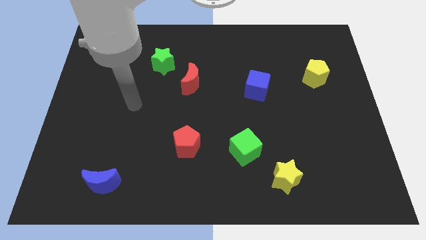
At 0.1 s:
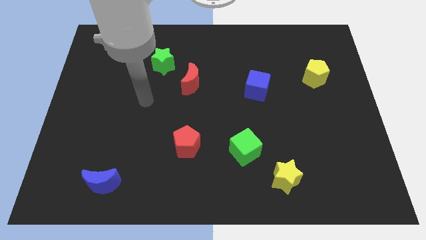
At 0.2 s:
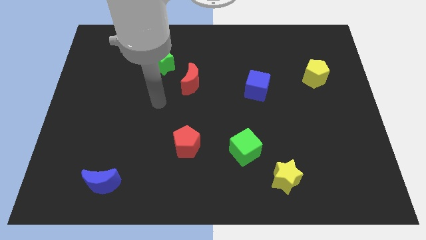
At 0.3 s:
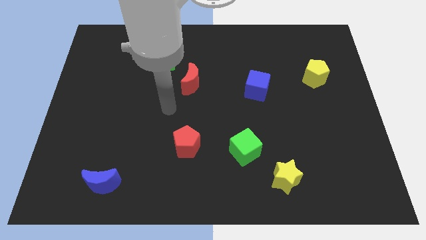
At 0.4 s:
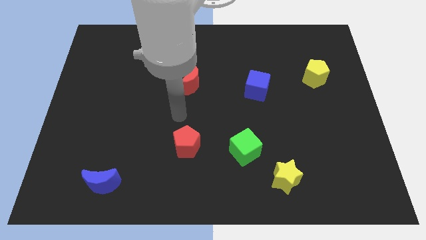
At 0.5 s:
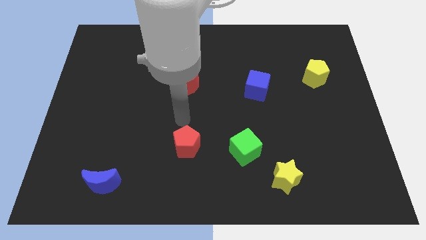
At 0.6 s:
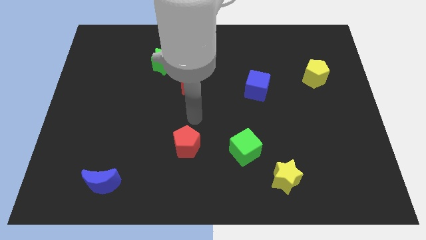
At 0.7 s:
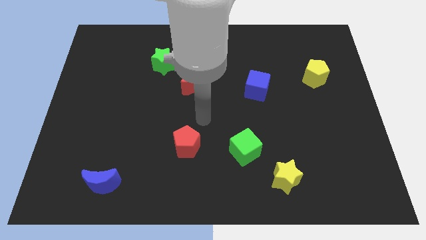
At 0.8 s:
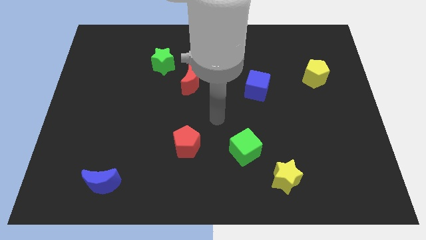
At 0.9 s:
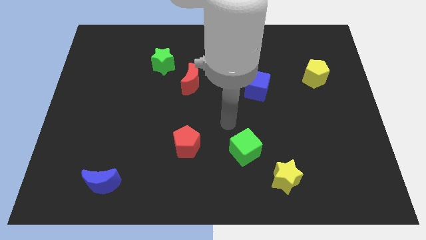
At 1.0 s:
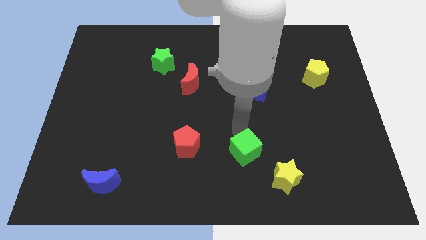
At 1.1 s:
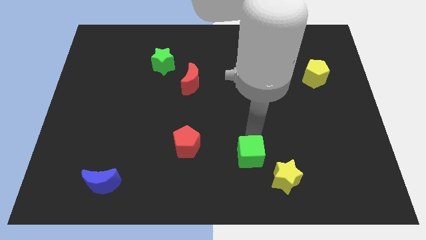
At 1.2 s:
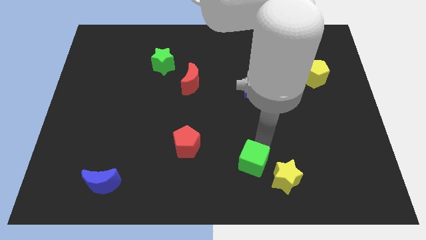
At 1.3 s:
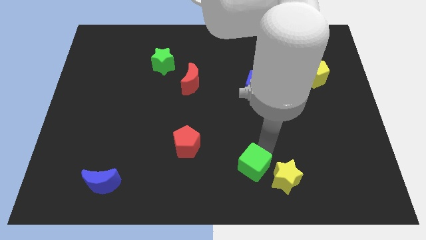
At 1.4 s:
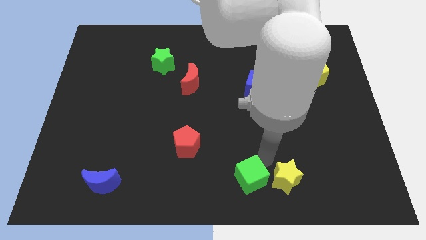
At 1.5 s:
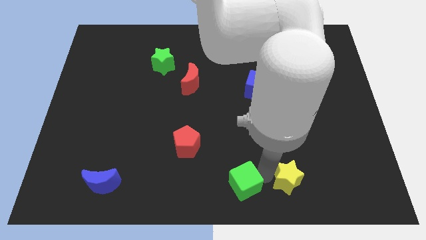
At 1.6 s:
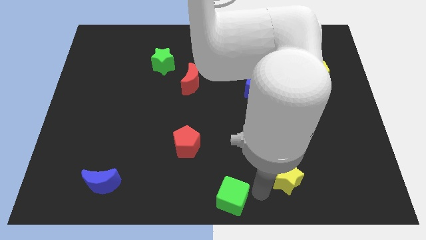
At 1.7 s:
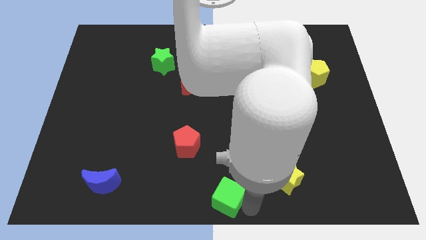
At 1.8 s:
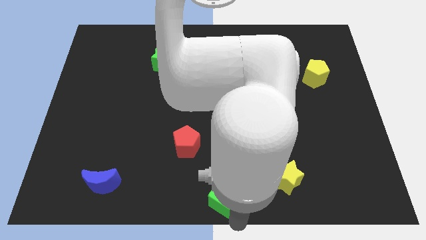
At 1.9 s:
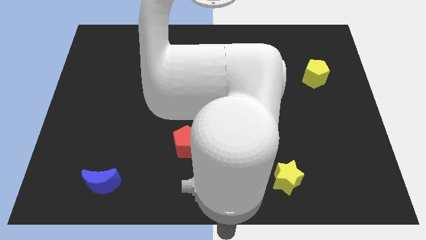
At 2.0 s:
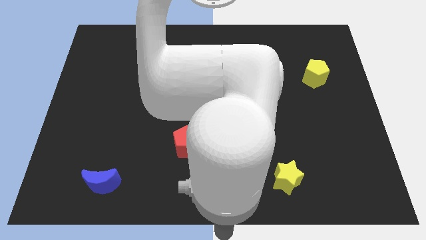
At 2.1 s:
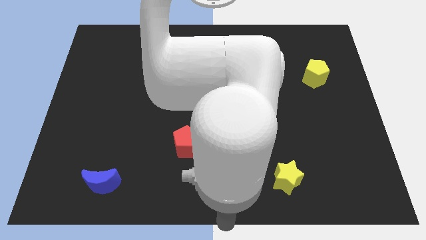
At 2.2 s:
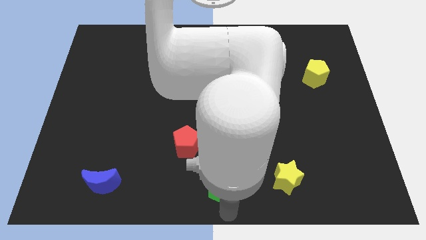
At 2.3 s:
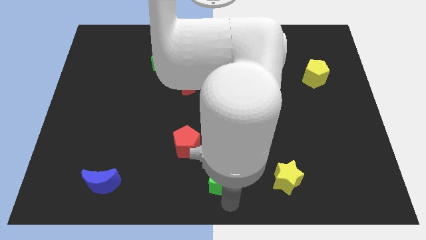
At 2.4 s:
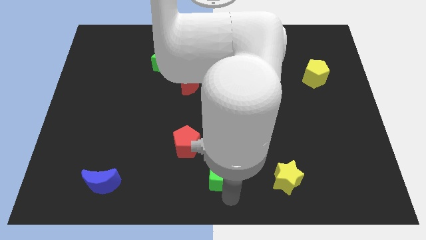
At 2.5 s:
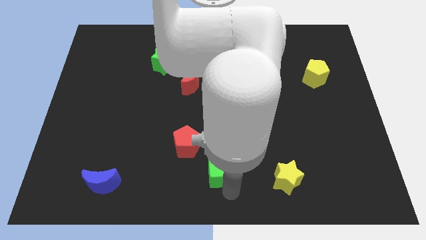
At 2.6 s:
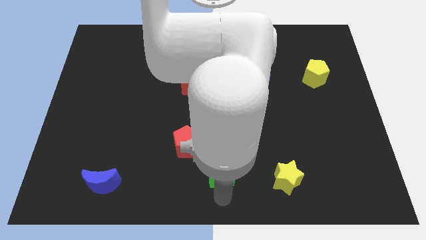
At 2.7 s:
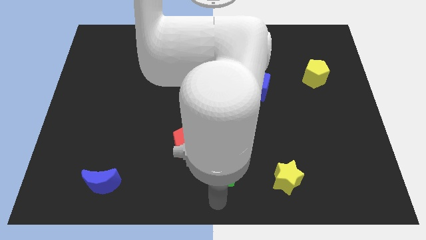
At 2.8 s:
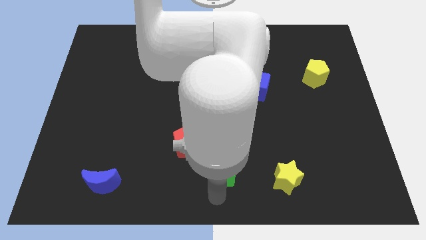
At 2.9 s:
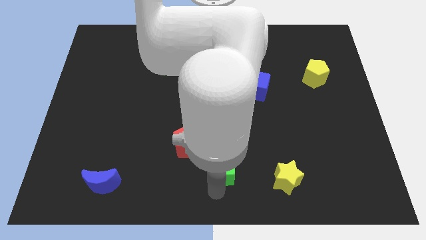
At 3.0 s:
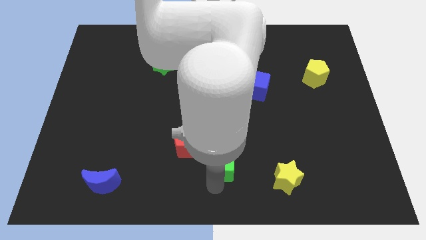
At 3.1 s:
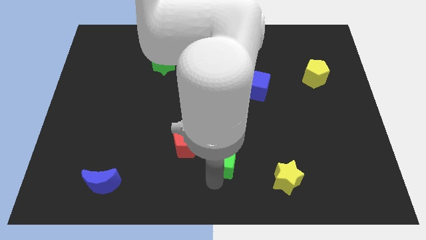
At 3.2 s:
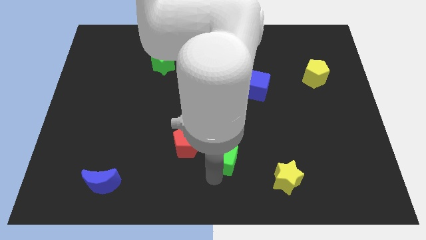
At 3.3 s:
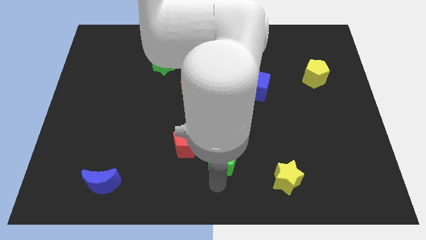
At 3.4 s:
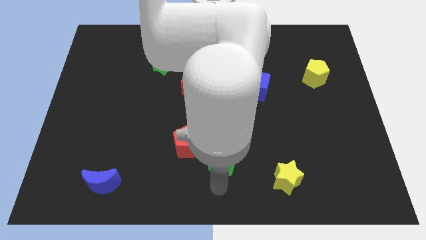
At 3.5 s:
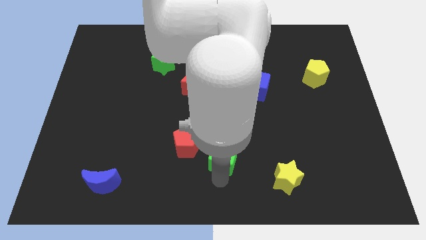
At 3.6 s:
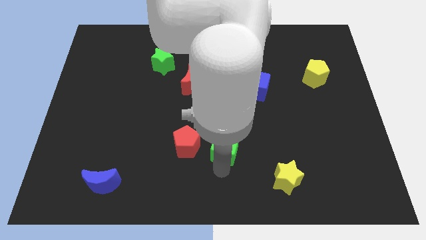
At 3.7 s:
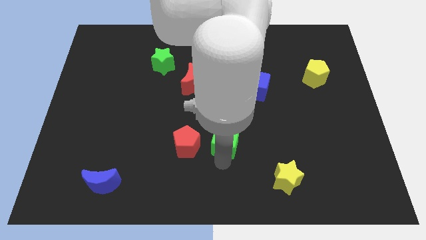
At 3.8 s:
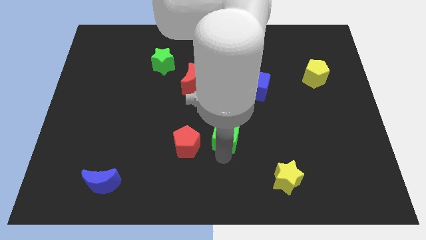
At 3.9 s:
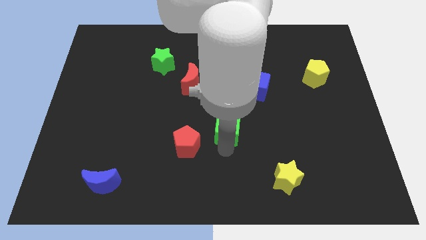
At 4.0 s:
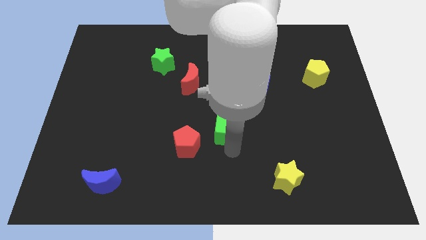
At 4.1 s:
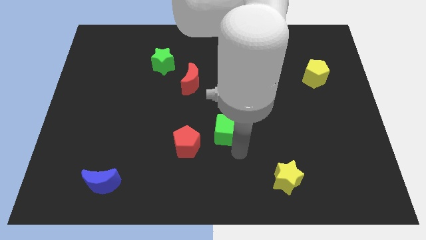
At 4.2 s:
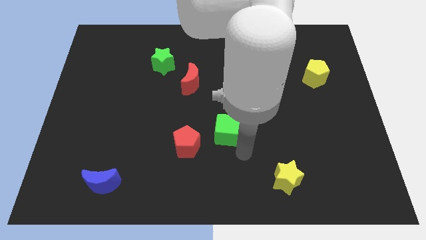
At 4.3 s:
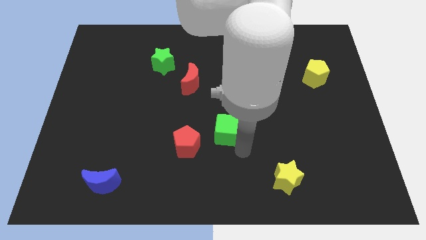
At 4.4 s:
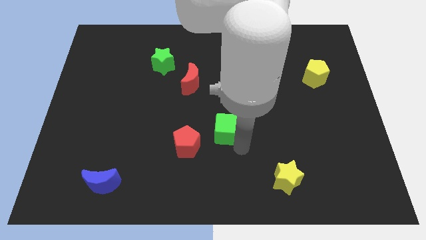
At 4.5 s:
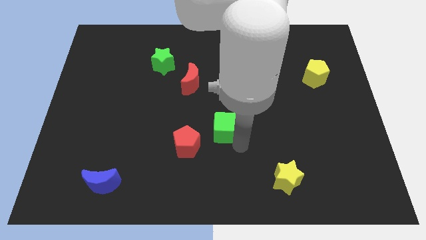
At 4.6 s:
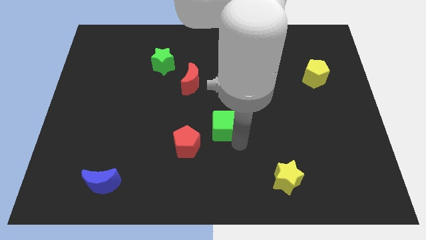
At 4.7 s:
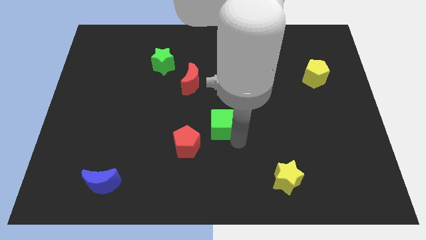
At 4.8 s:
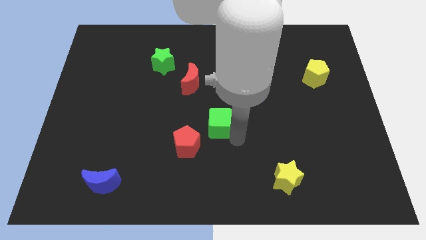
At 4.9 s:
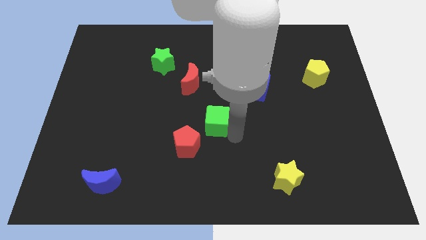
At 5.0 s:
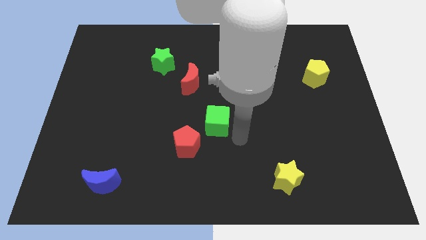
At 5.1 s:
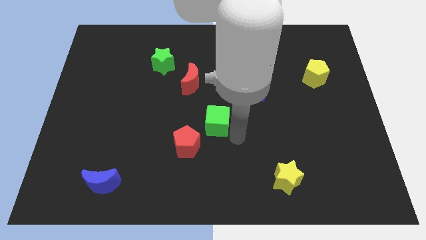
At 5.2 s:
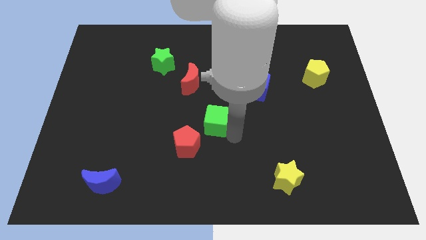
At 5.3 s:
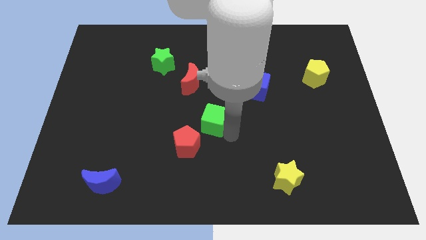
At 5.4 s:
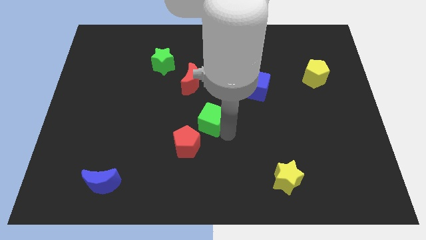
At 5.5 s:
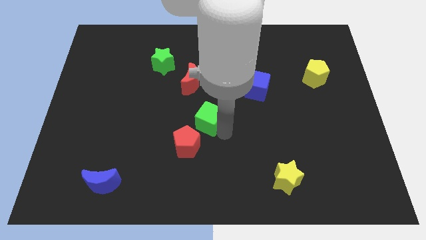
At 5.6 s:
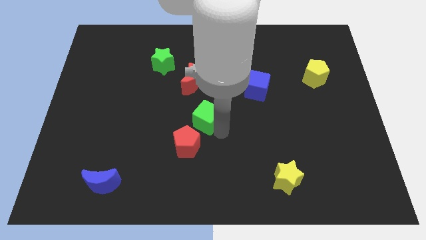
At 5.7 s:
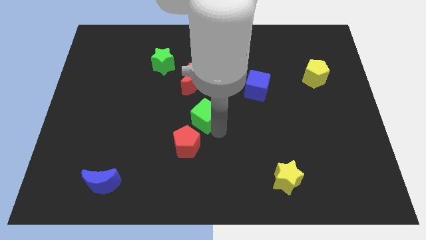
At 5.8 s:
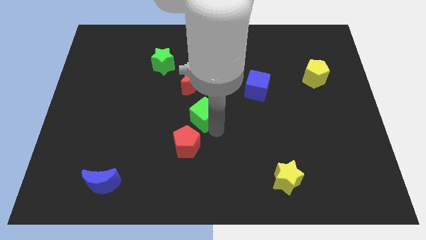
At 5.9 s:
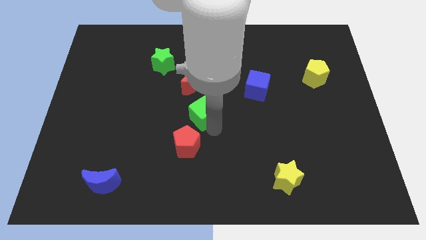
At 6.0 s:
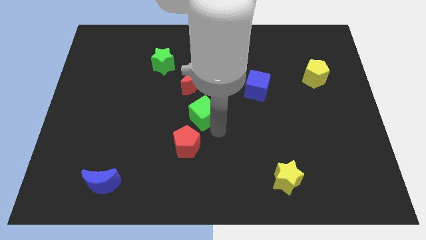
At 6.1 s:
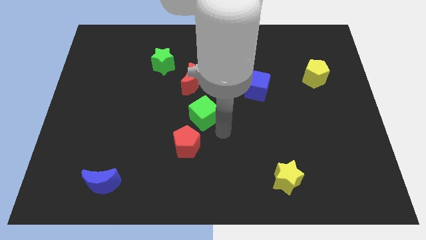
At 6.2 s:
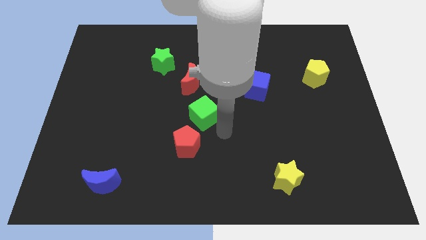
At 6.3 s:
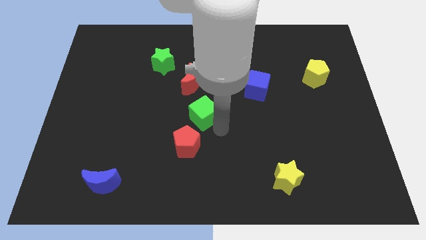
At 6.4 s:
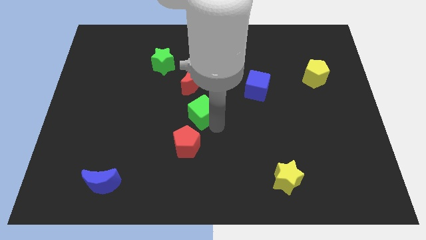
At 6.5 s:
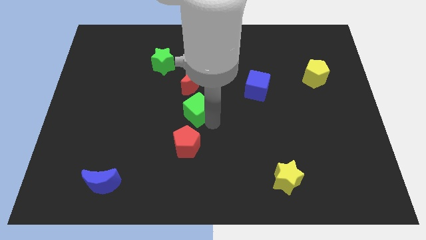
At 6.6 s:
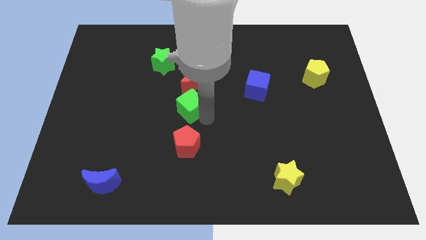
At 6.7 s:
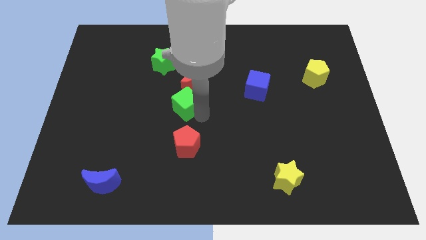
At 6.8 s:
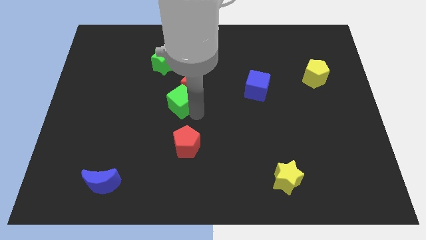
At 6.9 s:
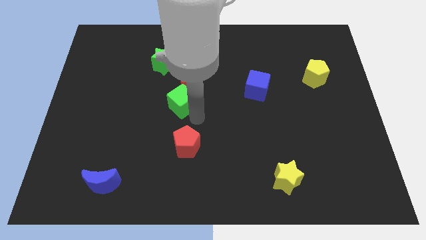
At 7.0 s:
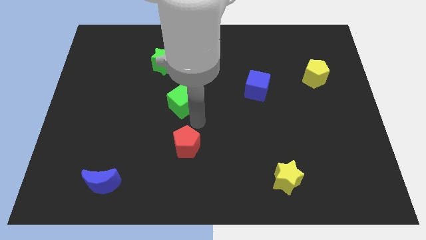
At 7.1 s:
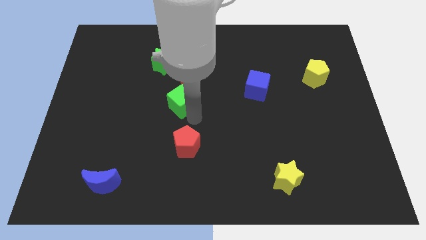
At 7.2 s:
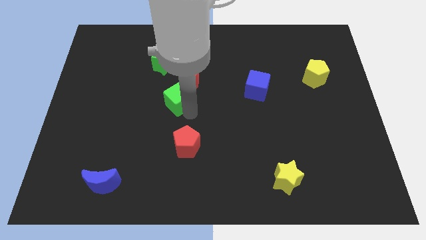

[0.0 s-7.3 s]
push the green cube upwards and left diagonally

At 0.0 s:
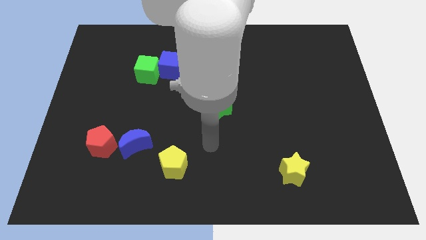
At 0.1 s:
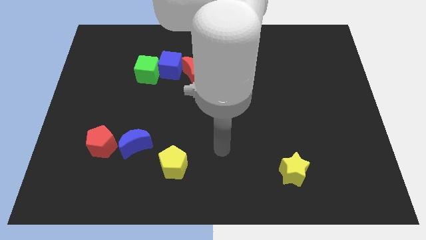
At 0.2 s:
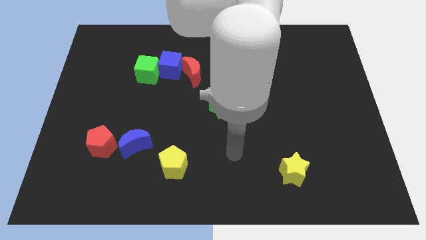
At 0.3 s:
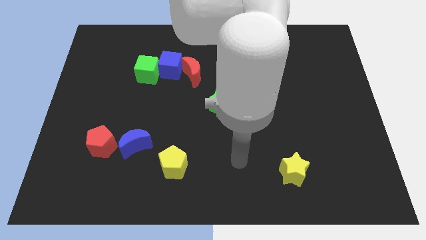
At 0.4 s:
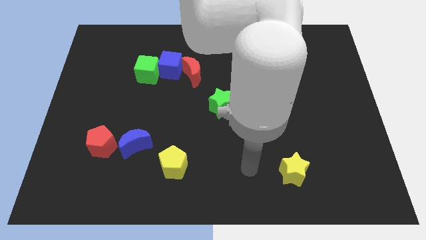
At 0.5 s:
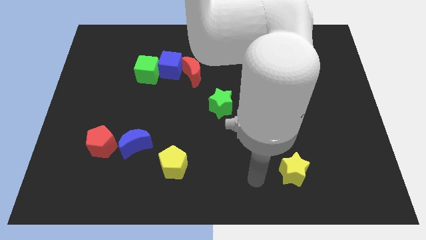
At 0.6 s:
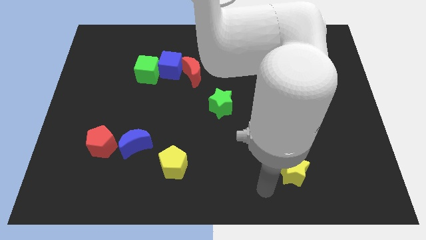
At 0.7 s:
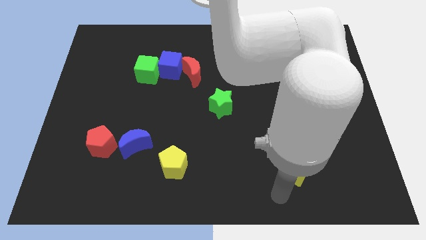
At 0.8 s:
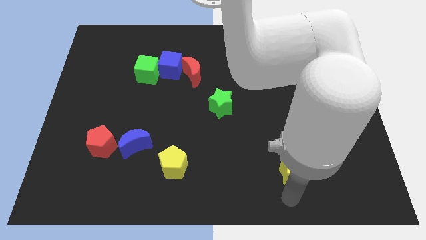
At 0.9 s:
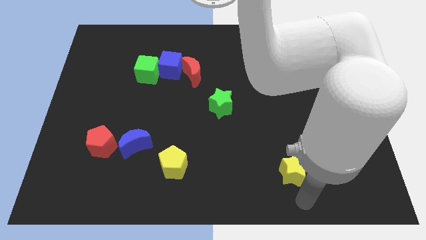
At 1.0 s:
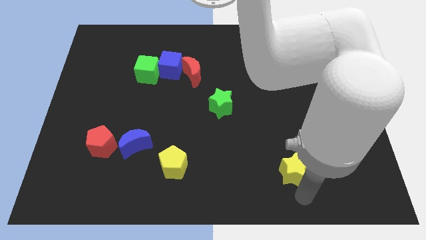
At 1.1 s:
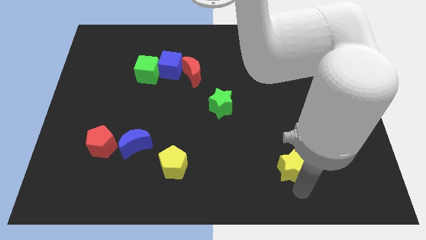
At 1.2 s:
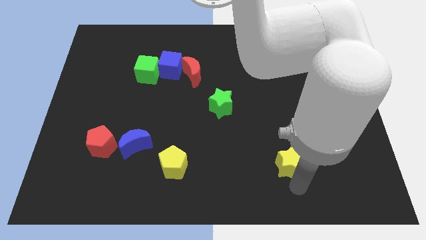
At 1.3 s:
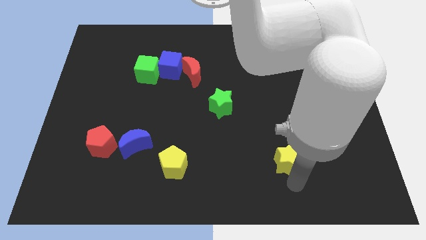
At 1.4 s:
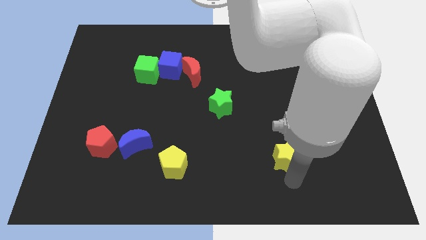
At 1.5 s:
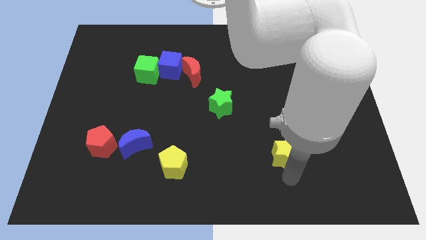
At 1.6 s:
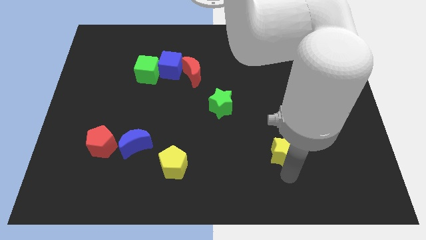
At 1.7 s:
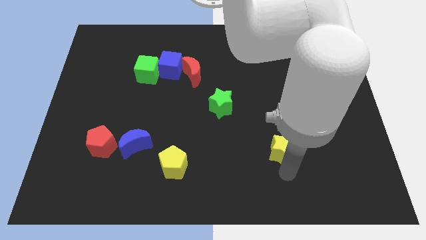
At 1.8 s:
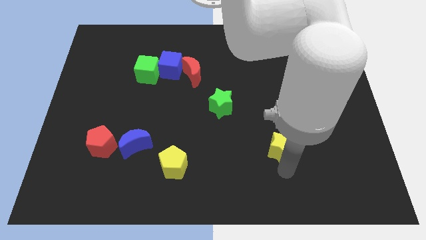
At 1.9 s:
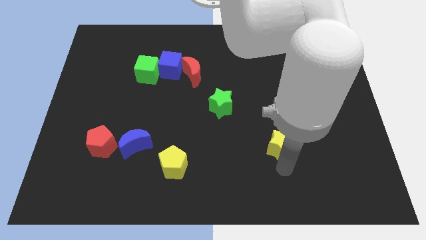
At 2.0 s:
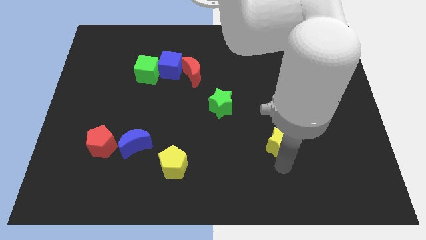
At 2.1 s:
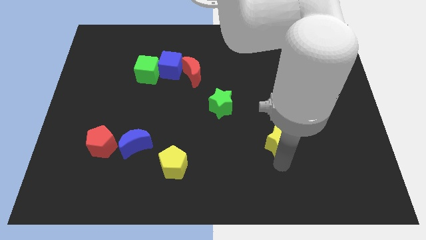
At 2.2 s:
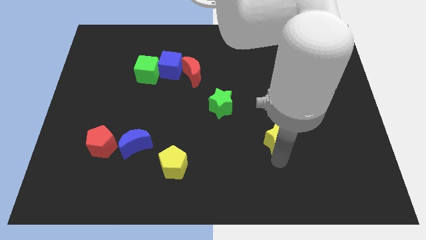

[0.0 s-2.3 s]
slide the yellow star upwards a little bit
